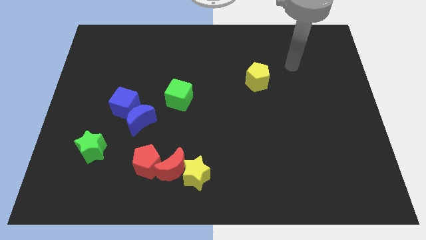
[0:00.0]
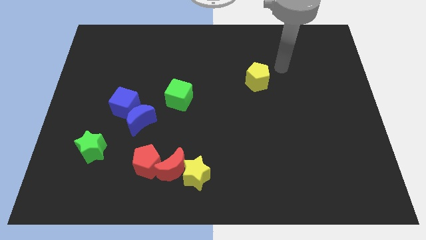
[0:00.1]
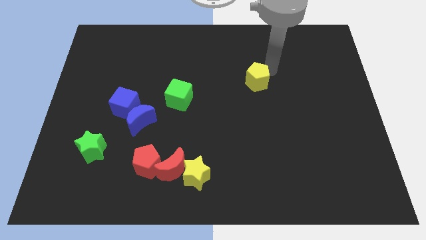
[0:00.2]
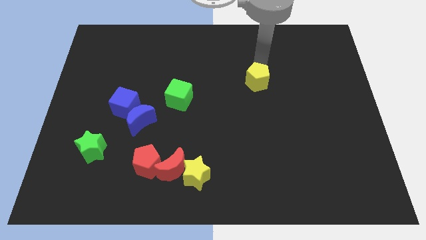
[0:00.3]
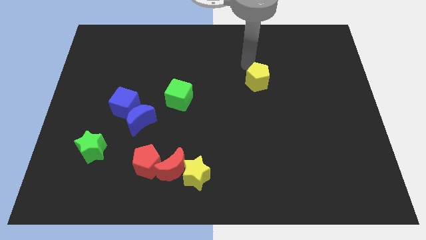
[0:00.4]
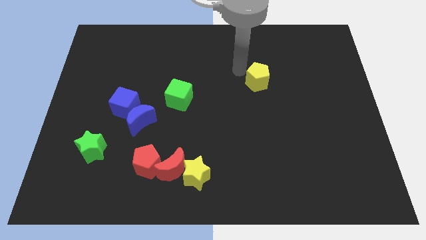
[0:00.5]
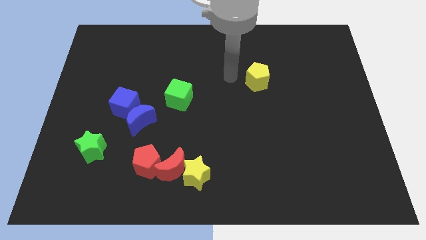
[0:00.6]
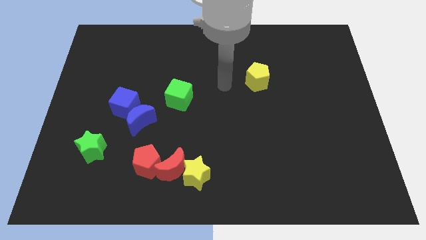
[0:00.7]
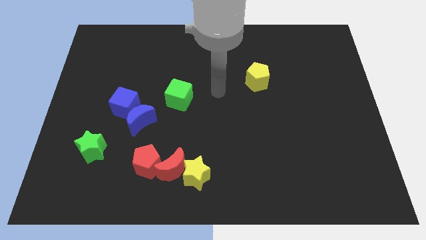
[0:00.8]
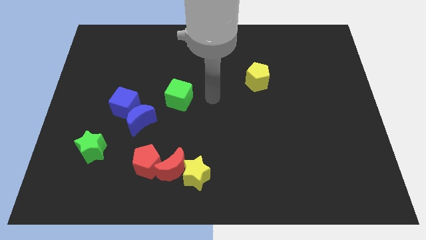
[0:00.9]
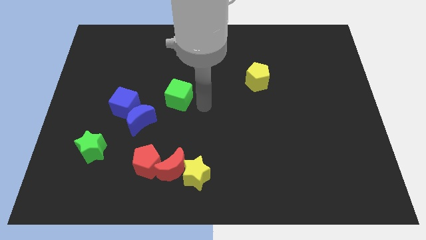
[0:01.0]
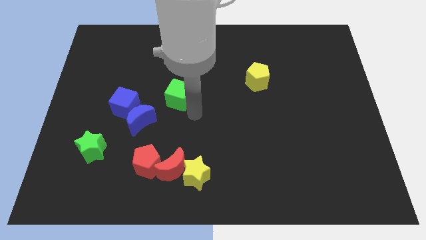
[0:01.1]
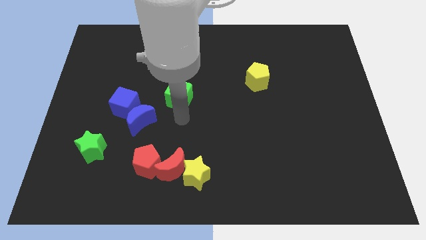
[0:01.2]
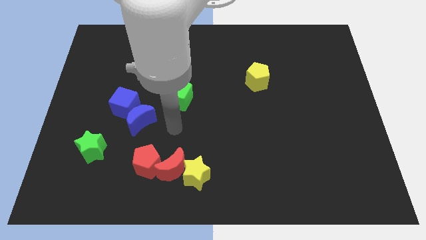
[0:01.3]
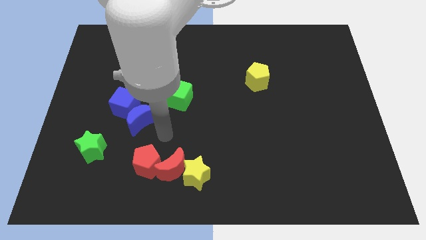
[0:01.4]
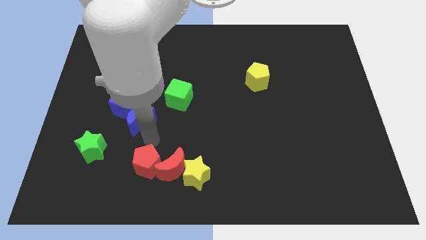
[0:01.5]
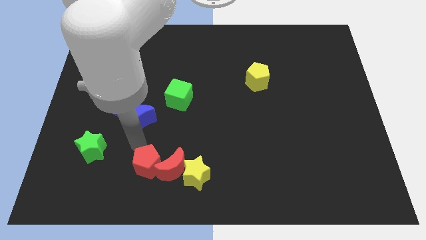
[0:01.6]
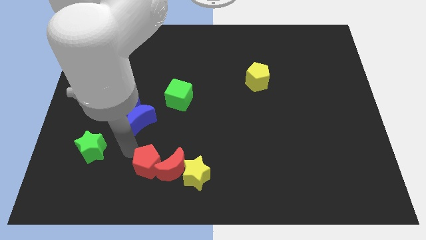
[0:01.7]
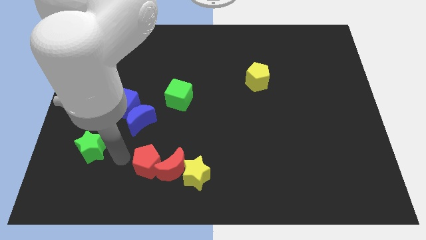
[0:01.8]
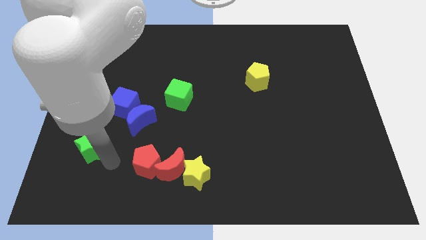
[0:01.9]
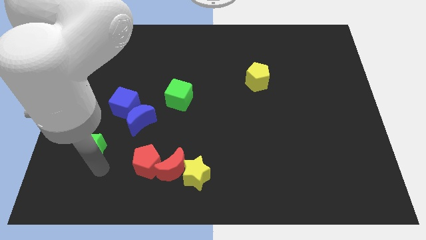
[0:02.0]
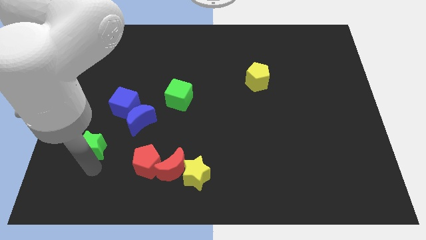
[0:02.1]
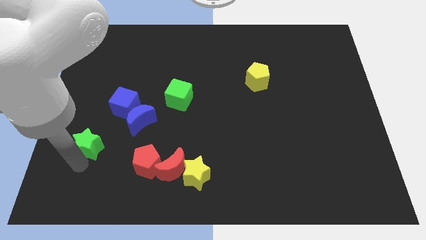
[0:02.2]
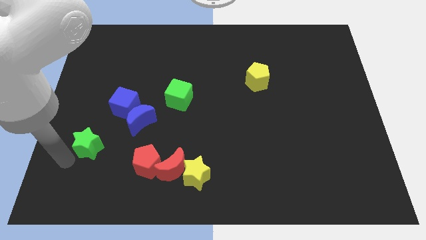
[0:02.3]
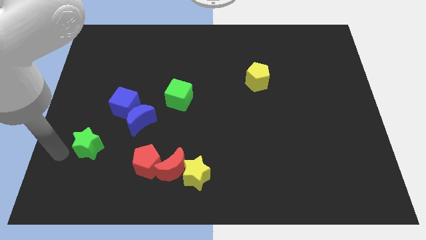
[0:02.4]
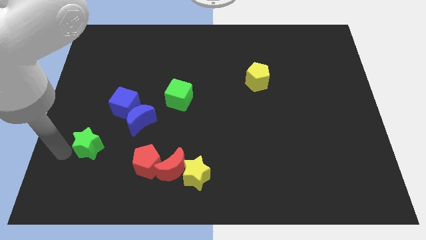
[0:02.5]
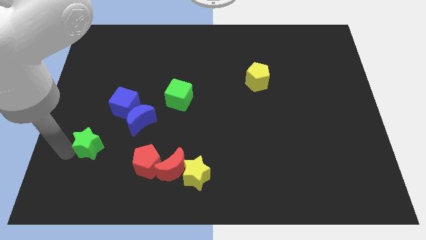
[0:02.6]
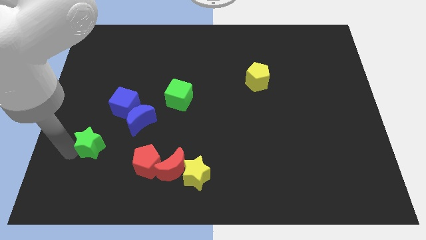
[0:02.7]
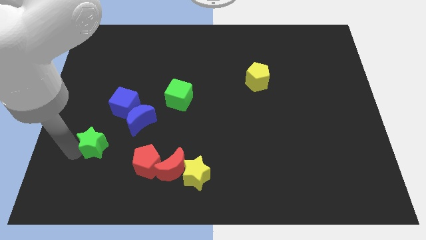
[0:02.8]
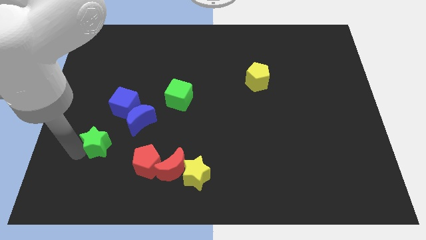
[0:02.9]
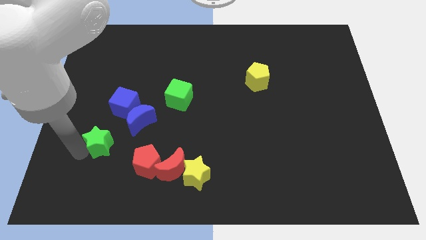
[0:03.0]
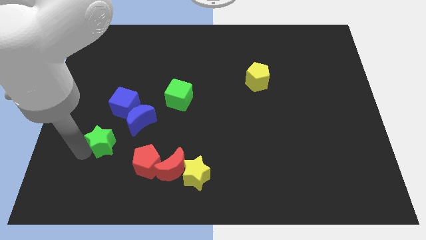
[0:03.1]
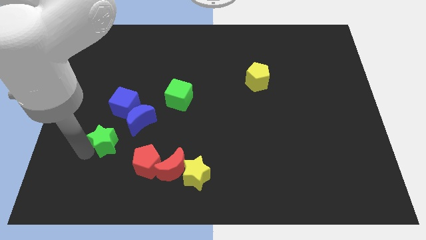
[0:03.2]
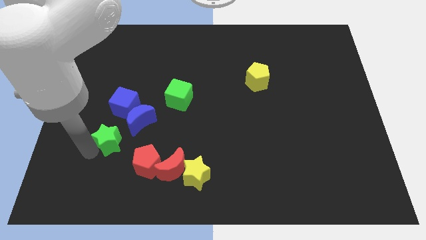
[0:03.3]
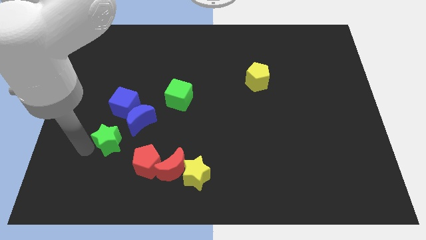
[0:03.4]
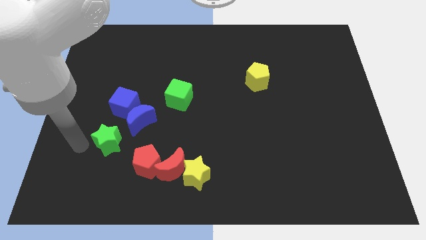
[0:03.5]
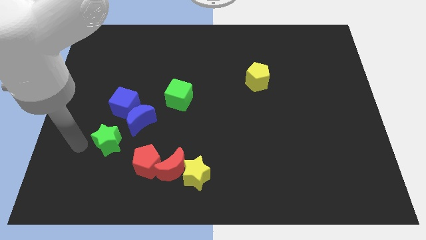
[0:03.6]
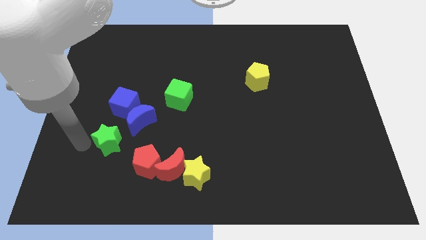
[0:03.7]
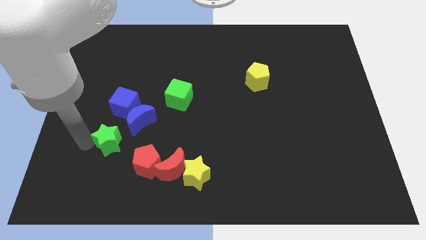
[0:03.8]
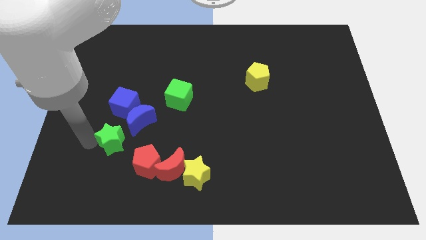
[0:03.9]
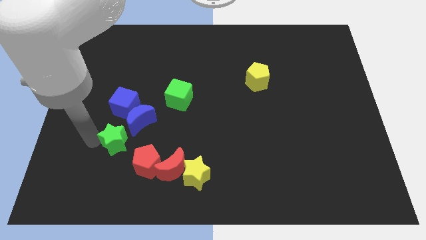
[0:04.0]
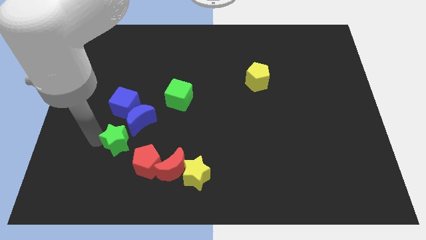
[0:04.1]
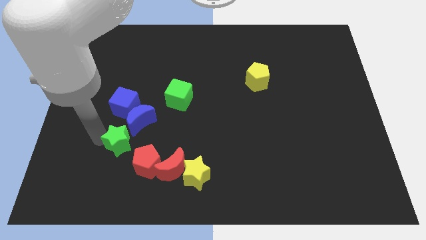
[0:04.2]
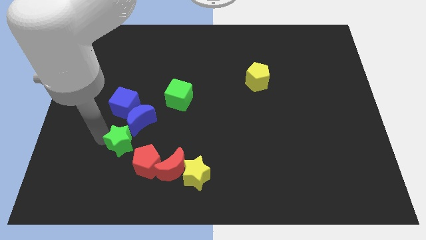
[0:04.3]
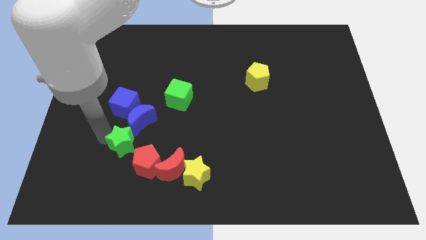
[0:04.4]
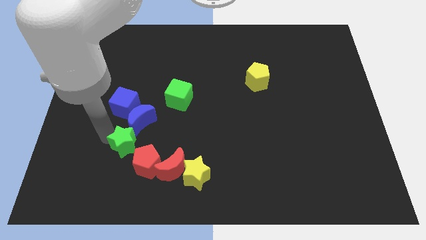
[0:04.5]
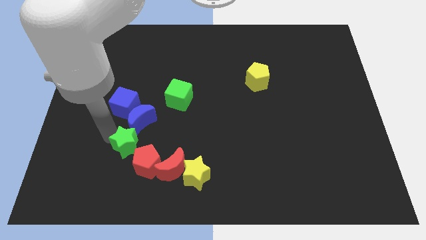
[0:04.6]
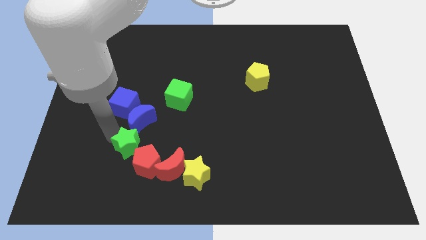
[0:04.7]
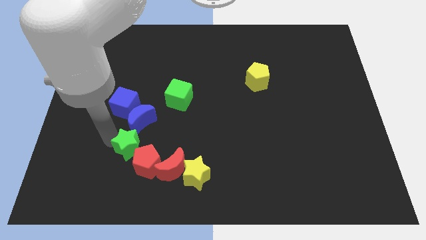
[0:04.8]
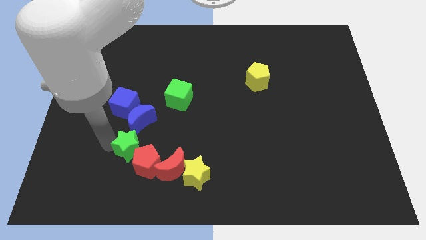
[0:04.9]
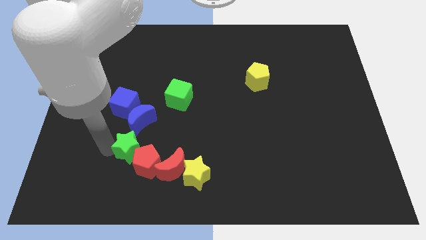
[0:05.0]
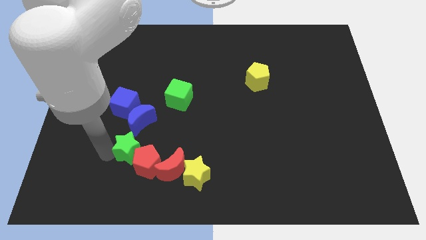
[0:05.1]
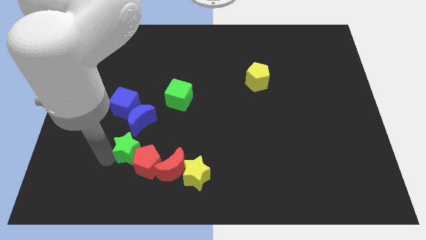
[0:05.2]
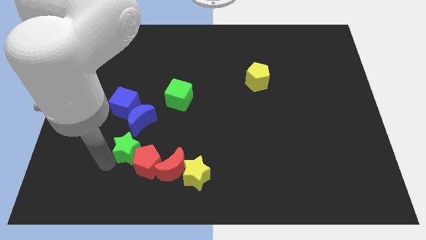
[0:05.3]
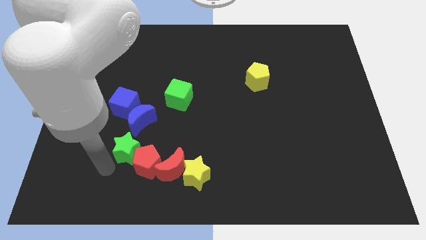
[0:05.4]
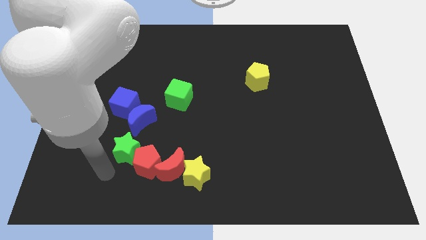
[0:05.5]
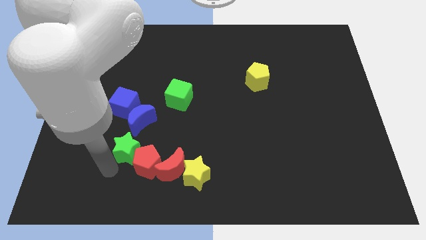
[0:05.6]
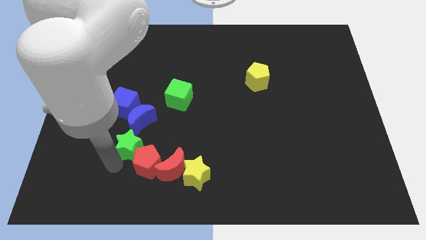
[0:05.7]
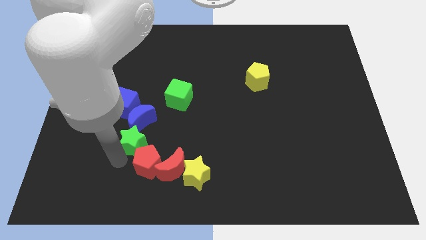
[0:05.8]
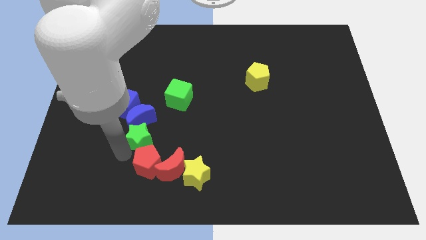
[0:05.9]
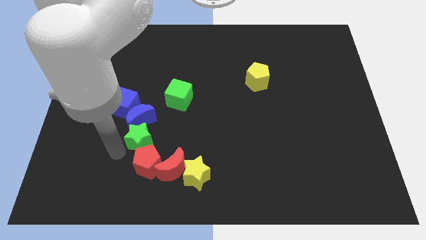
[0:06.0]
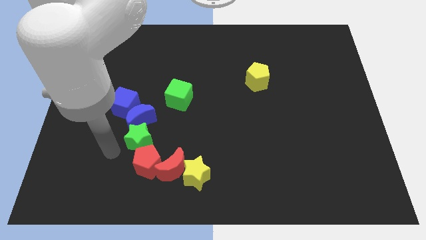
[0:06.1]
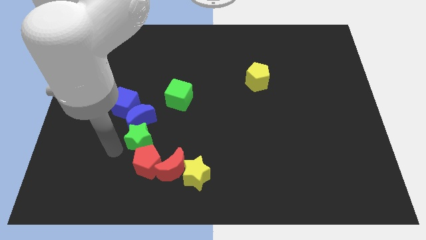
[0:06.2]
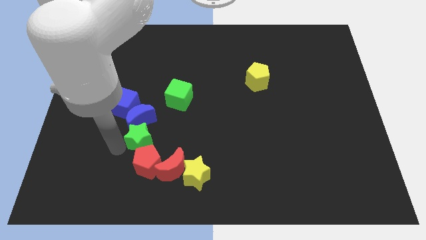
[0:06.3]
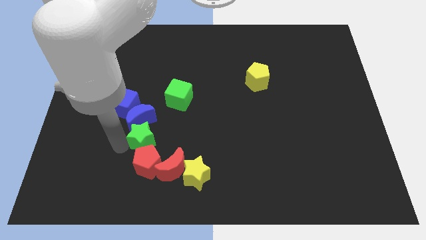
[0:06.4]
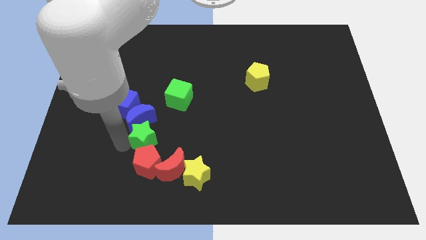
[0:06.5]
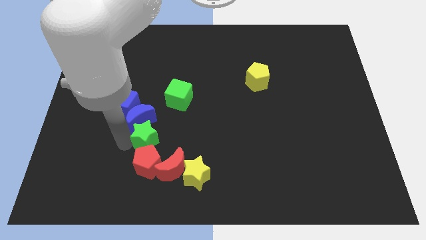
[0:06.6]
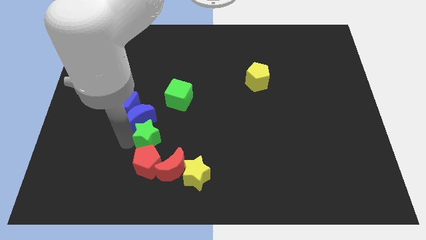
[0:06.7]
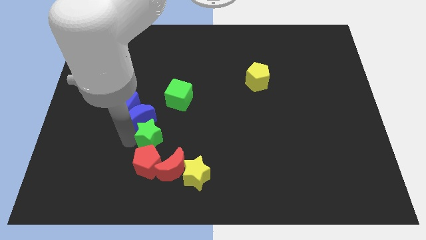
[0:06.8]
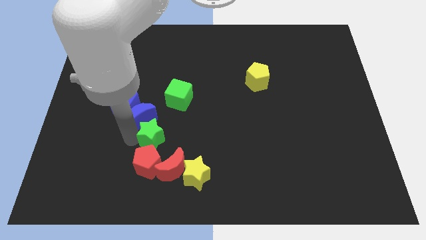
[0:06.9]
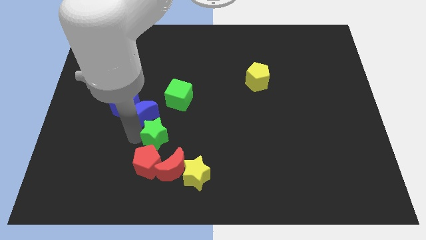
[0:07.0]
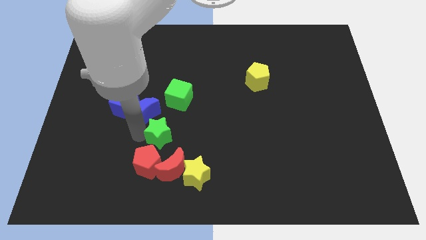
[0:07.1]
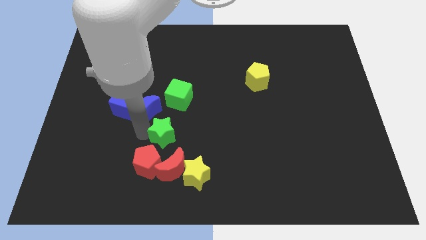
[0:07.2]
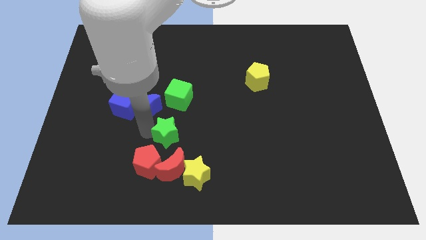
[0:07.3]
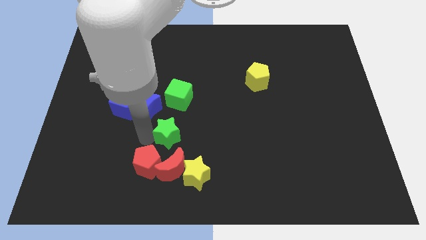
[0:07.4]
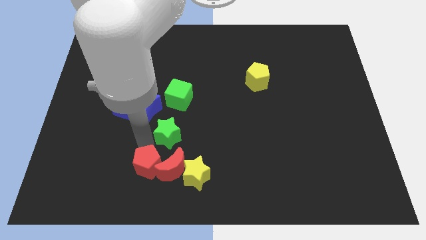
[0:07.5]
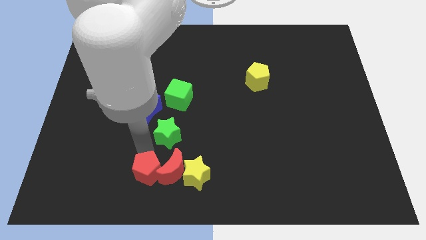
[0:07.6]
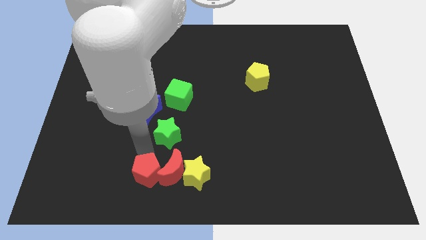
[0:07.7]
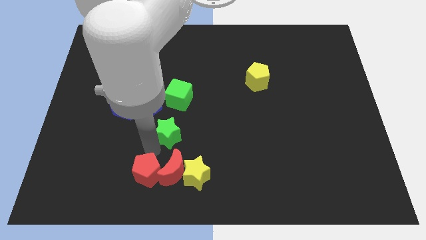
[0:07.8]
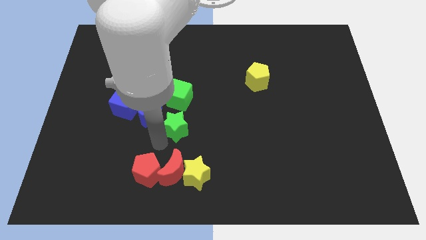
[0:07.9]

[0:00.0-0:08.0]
move the green star to the right of the blue moon
